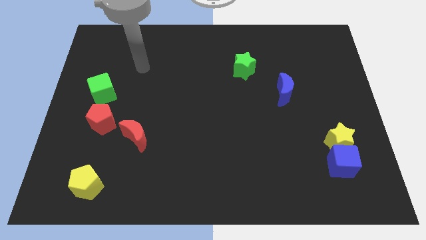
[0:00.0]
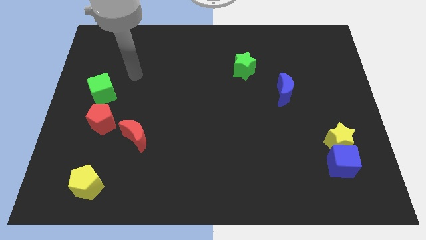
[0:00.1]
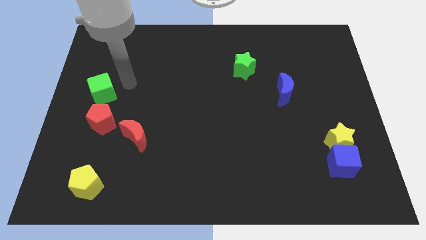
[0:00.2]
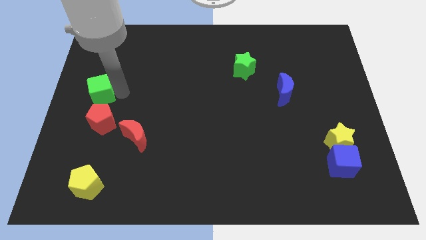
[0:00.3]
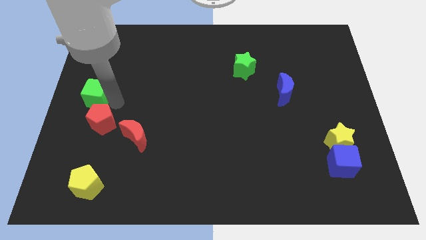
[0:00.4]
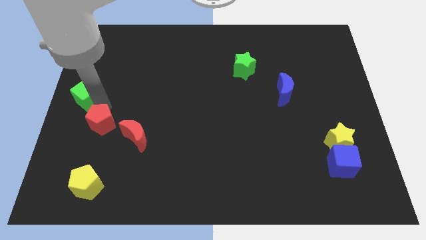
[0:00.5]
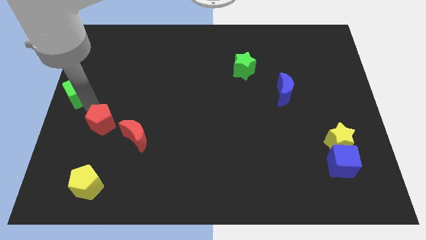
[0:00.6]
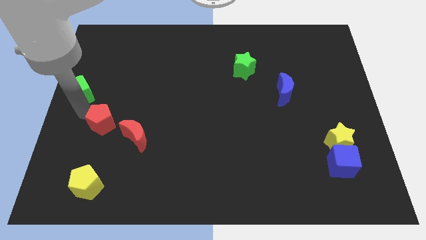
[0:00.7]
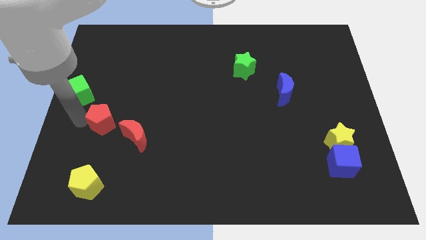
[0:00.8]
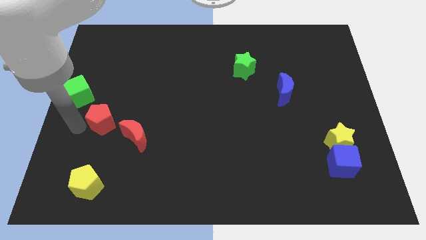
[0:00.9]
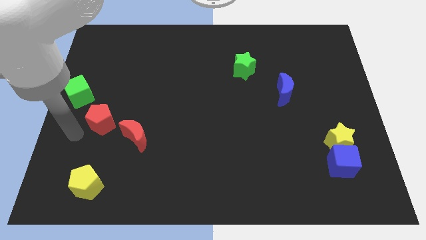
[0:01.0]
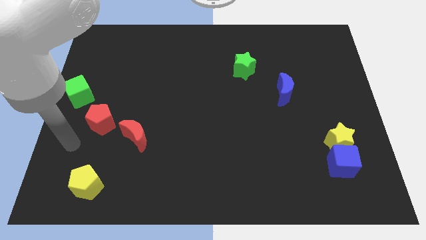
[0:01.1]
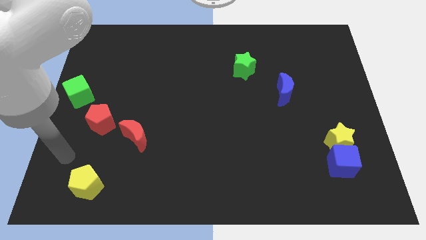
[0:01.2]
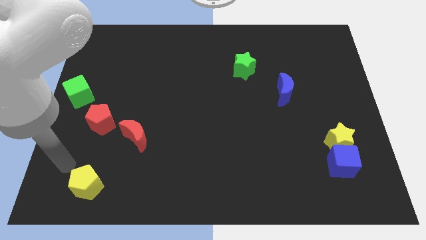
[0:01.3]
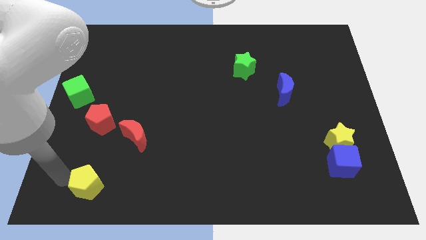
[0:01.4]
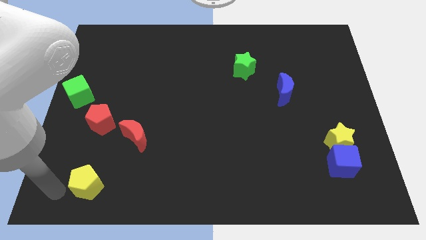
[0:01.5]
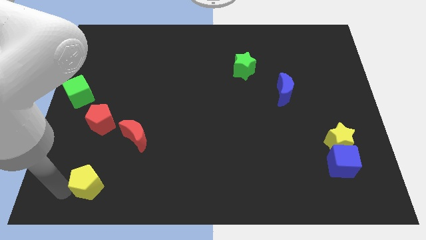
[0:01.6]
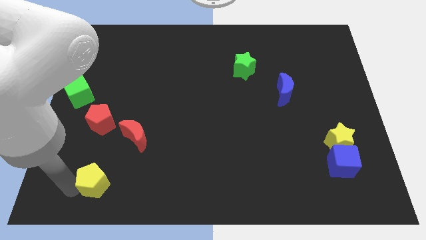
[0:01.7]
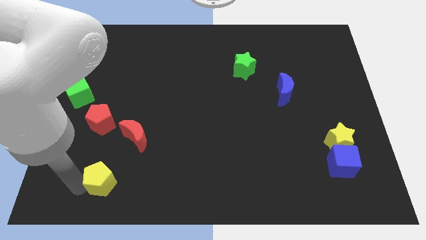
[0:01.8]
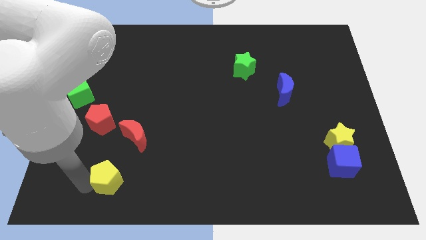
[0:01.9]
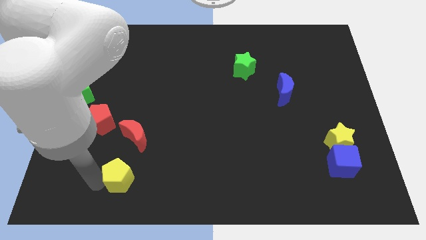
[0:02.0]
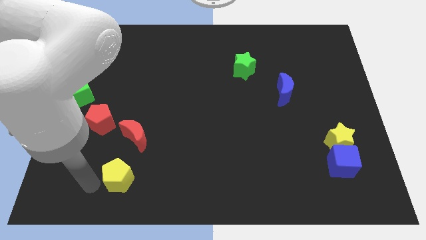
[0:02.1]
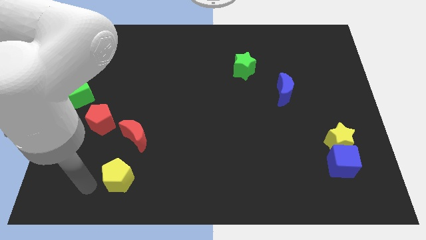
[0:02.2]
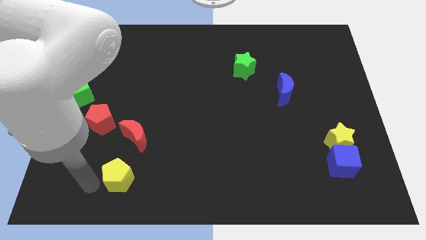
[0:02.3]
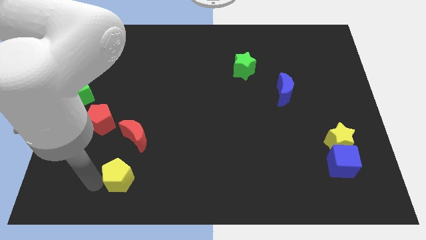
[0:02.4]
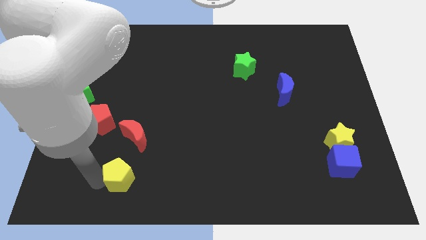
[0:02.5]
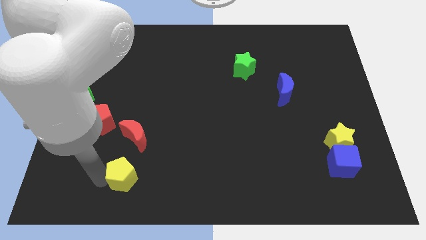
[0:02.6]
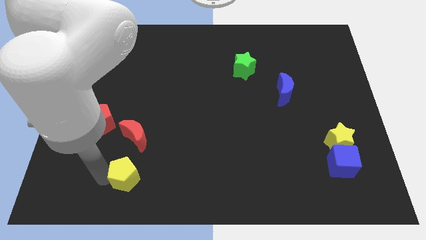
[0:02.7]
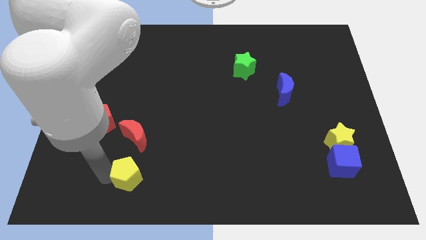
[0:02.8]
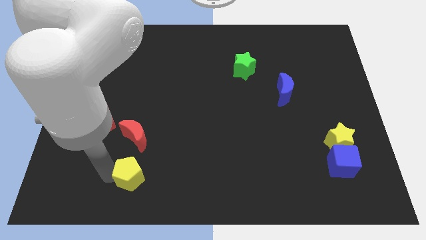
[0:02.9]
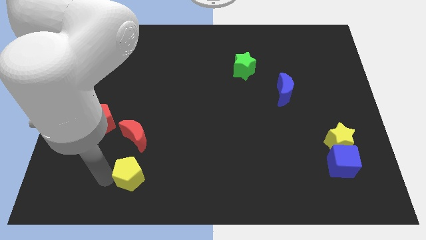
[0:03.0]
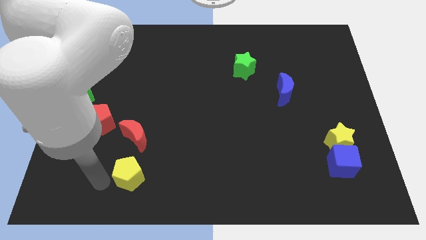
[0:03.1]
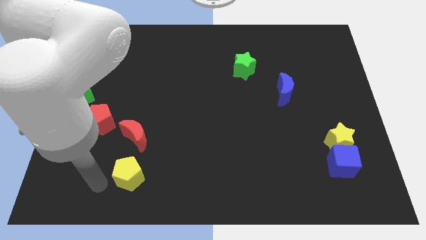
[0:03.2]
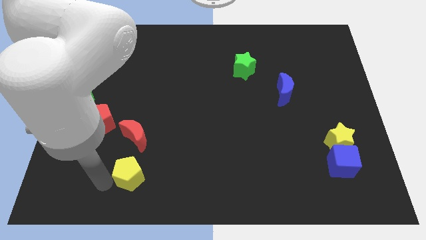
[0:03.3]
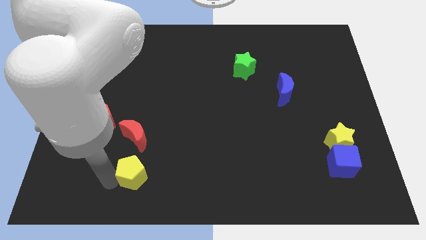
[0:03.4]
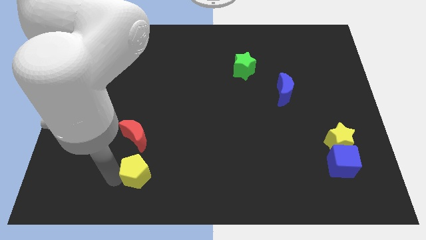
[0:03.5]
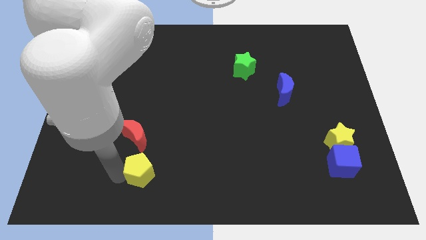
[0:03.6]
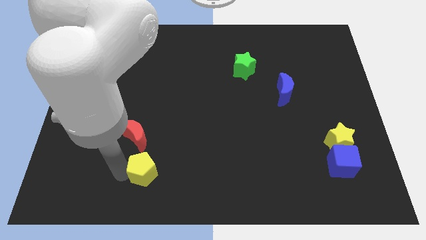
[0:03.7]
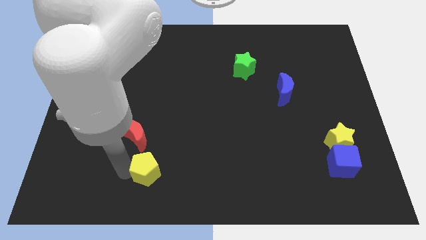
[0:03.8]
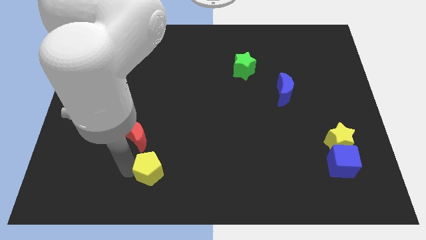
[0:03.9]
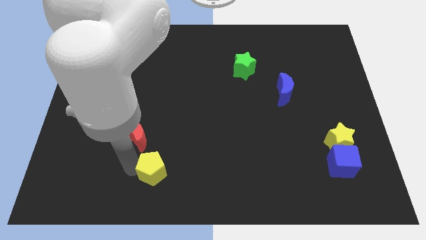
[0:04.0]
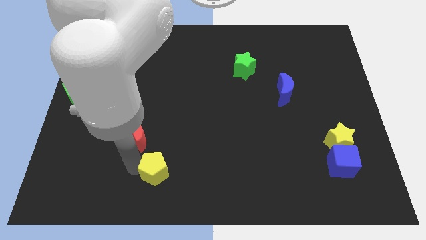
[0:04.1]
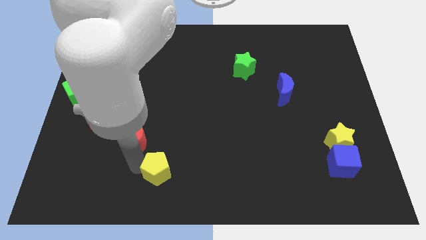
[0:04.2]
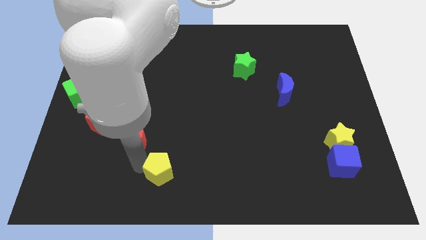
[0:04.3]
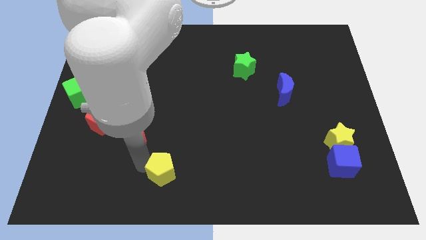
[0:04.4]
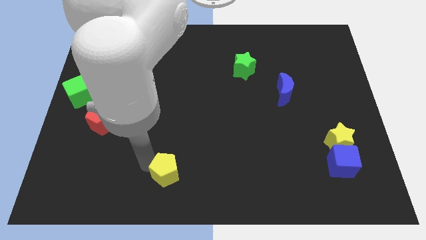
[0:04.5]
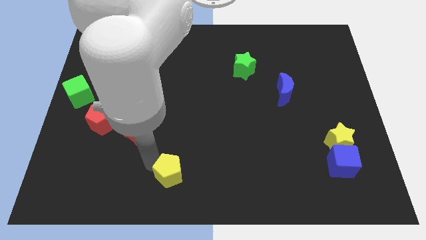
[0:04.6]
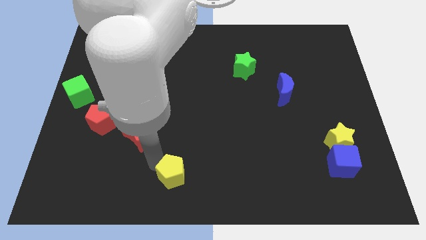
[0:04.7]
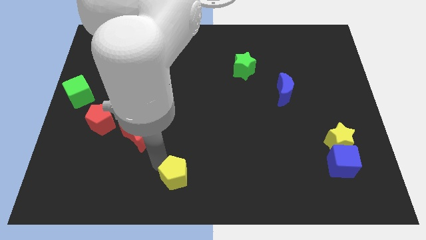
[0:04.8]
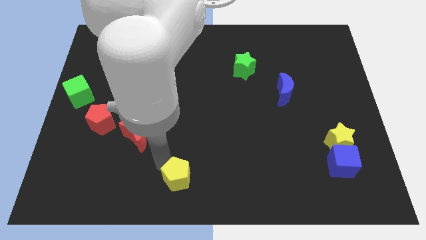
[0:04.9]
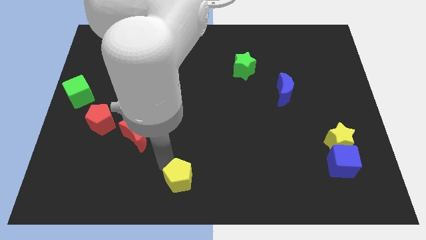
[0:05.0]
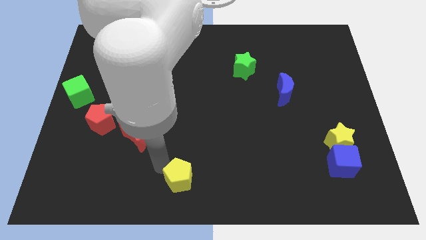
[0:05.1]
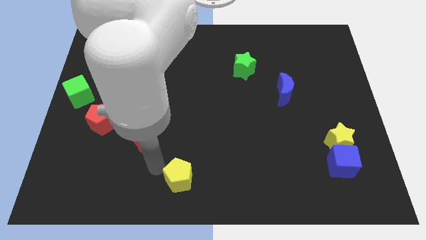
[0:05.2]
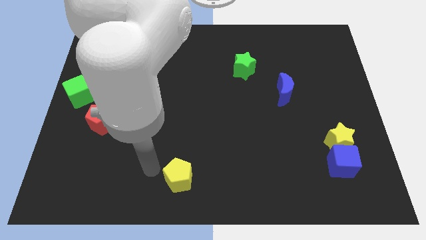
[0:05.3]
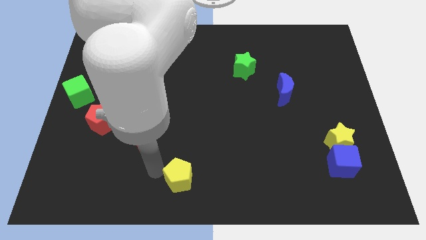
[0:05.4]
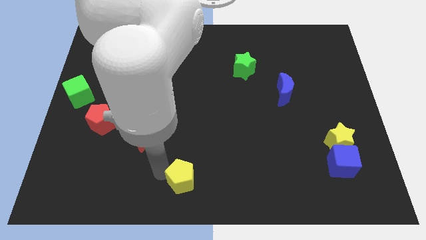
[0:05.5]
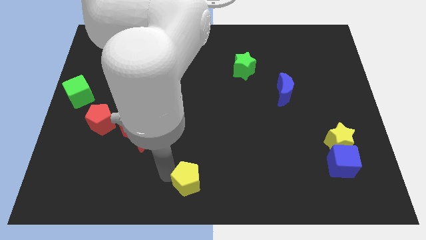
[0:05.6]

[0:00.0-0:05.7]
slide the yellow pentagon right

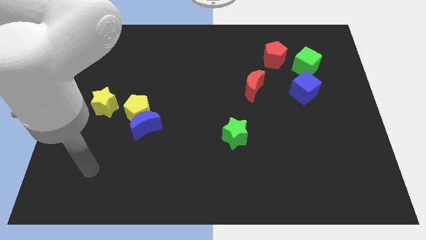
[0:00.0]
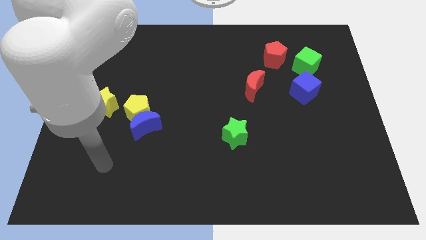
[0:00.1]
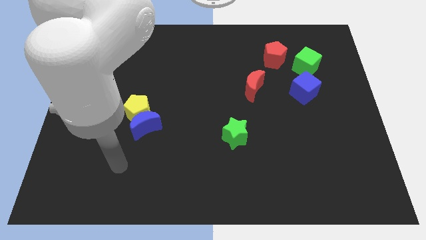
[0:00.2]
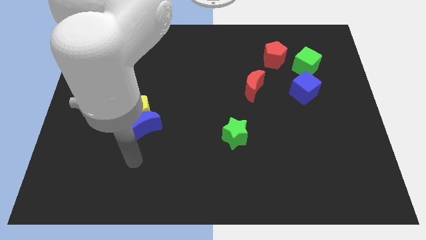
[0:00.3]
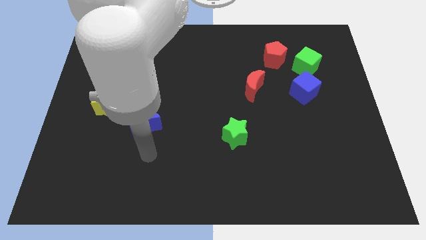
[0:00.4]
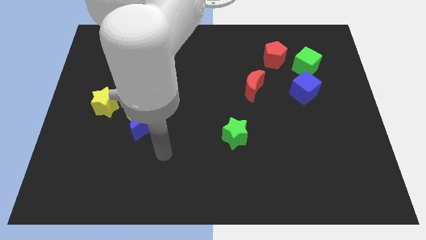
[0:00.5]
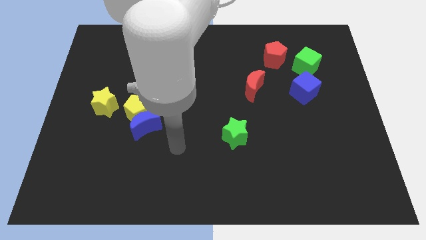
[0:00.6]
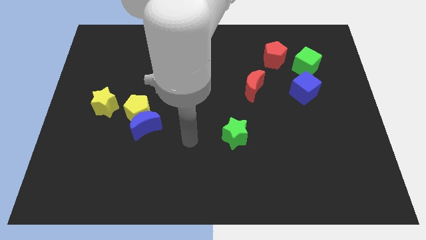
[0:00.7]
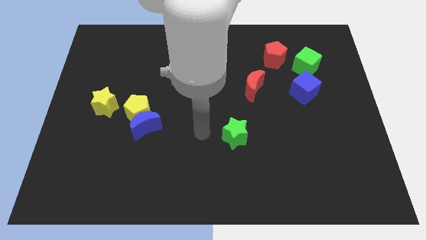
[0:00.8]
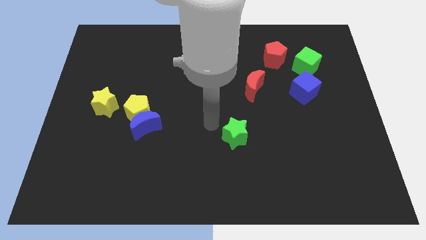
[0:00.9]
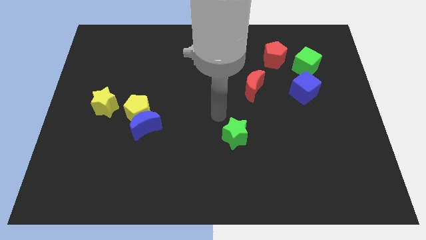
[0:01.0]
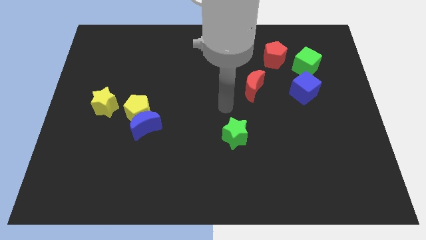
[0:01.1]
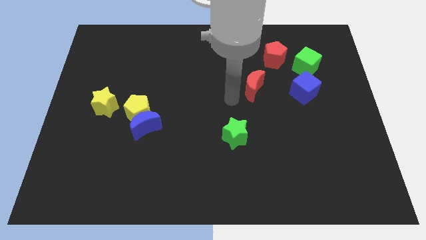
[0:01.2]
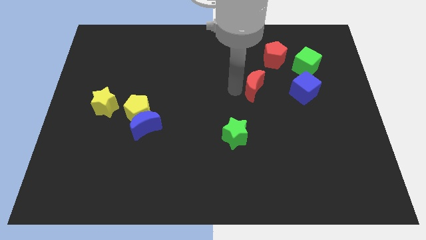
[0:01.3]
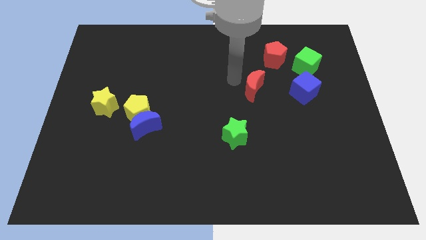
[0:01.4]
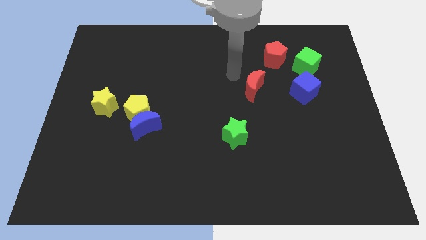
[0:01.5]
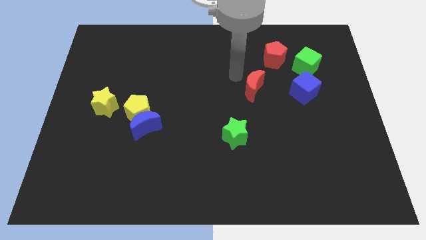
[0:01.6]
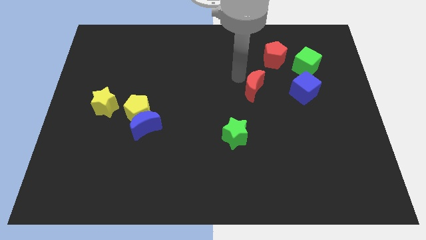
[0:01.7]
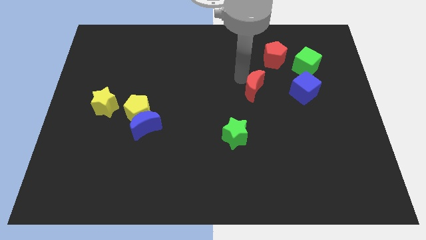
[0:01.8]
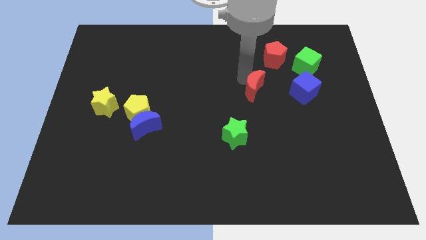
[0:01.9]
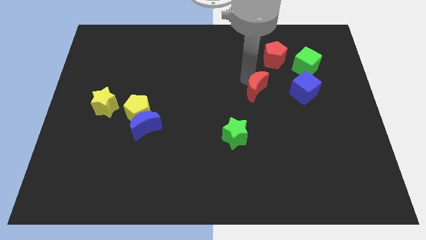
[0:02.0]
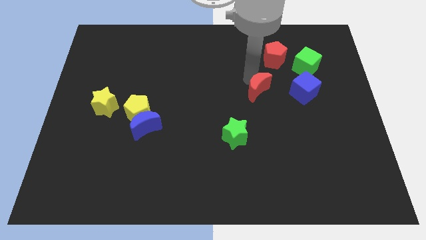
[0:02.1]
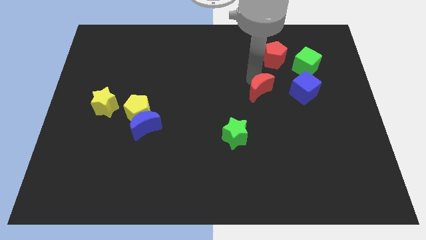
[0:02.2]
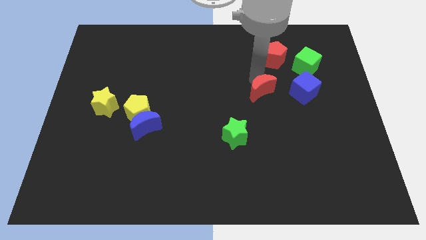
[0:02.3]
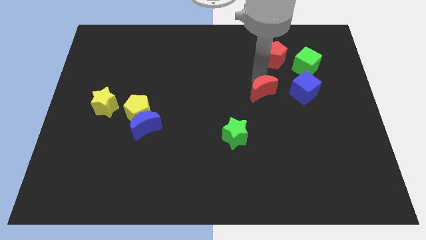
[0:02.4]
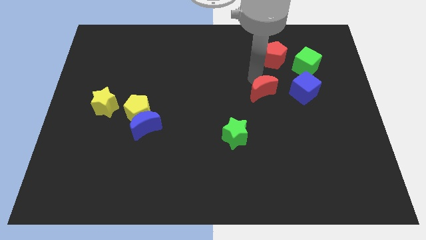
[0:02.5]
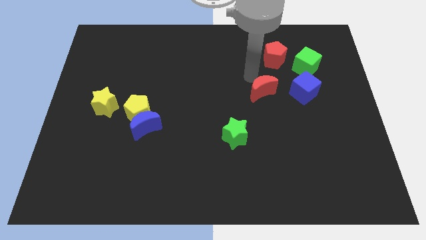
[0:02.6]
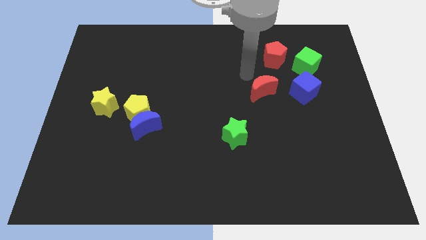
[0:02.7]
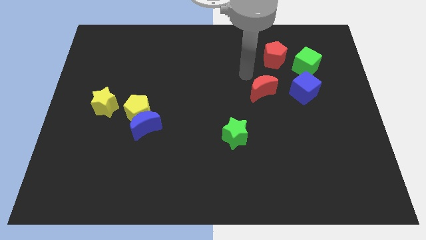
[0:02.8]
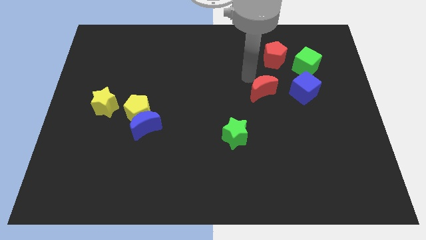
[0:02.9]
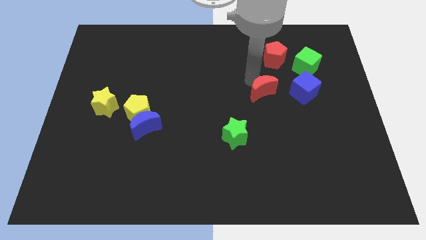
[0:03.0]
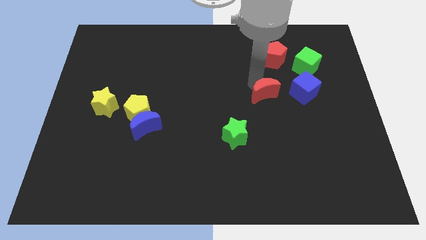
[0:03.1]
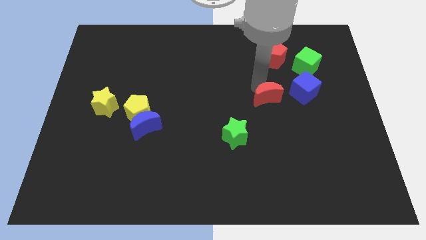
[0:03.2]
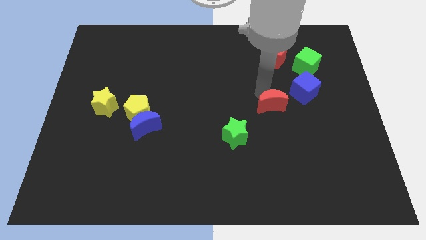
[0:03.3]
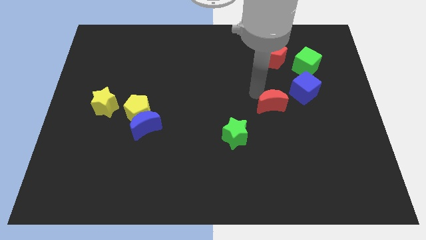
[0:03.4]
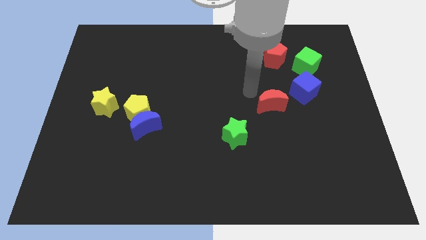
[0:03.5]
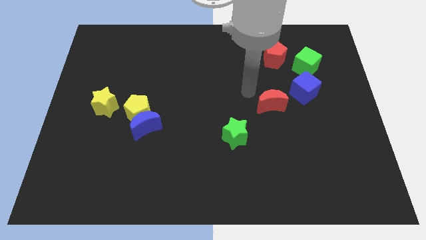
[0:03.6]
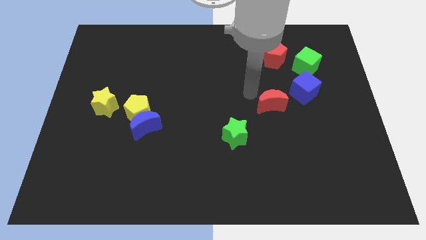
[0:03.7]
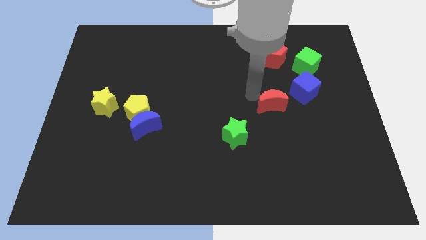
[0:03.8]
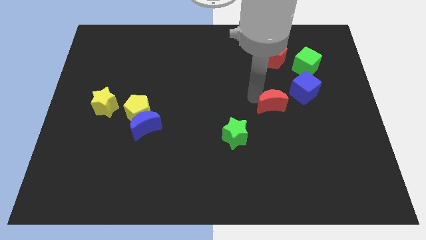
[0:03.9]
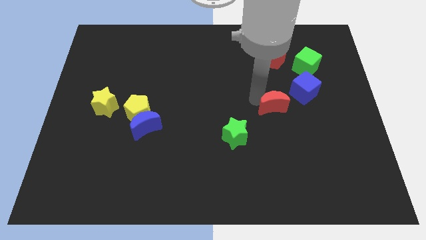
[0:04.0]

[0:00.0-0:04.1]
push the red moon downwards and to the right somewhat
